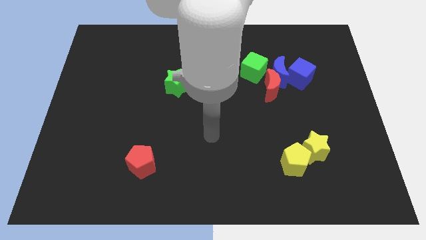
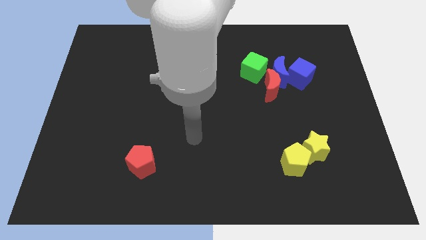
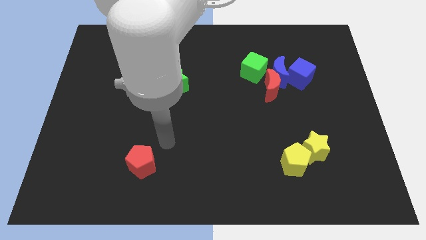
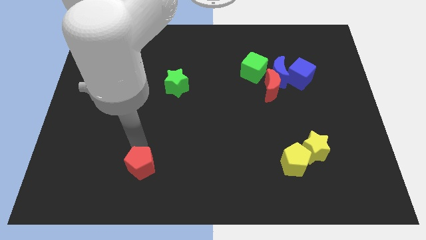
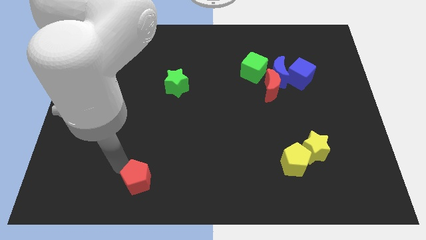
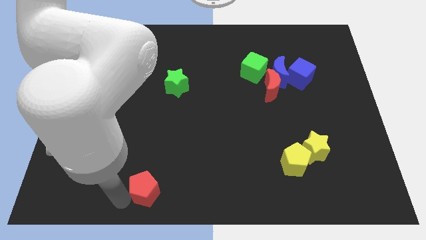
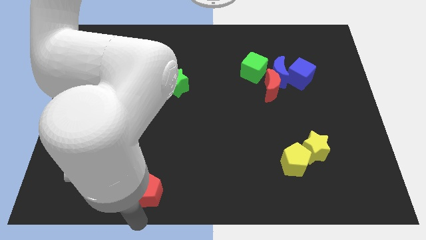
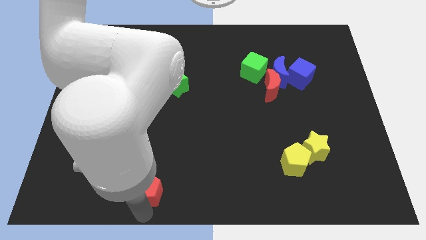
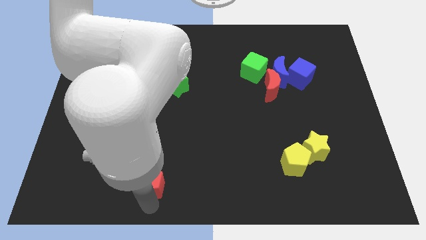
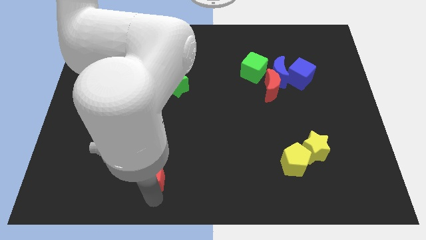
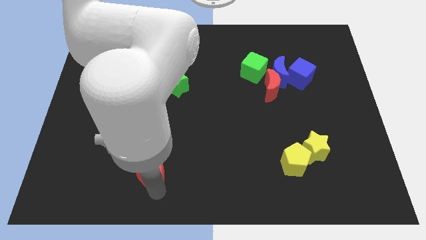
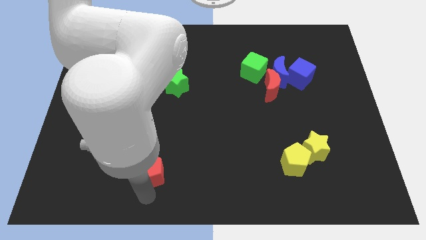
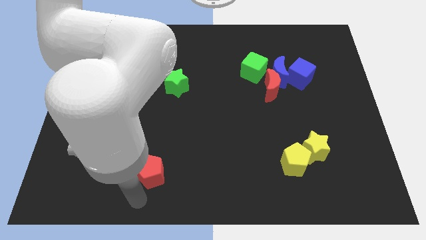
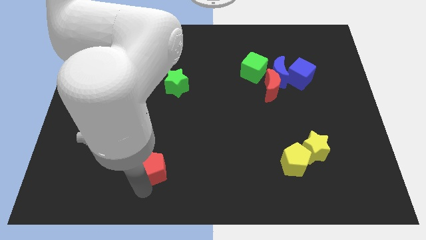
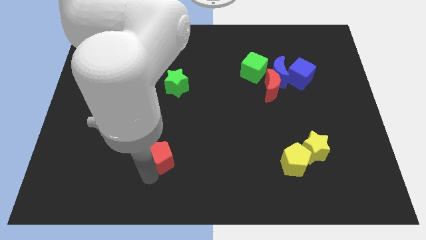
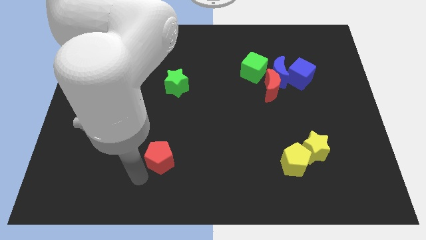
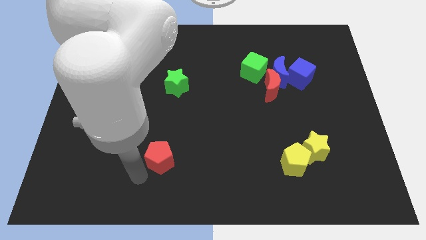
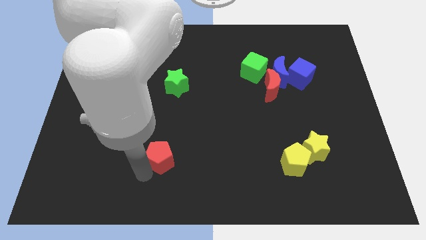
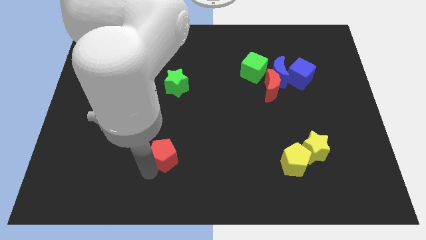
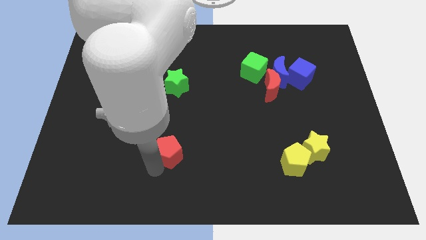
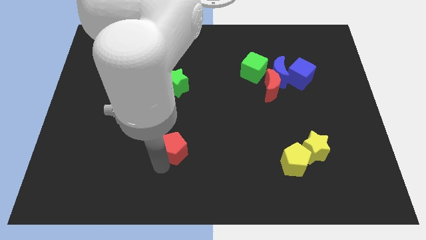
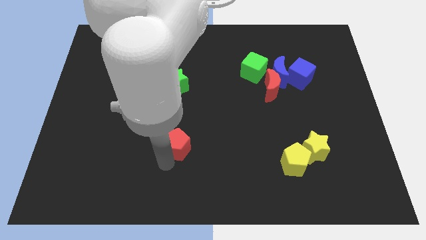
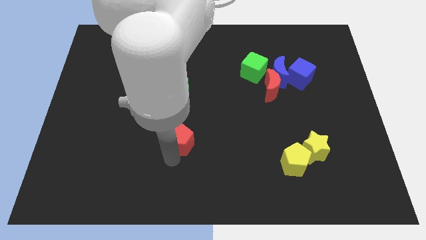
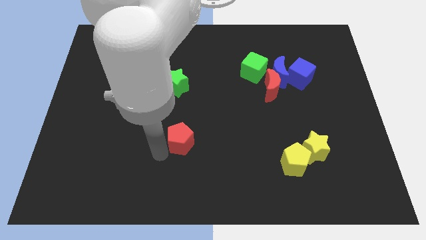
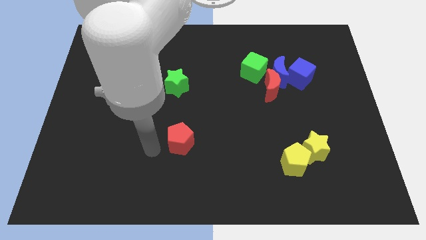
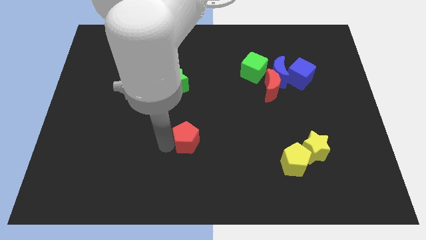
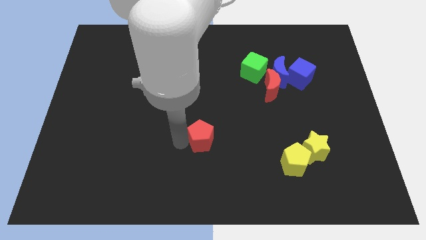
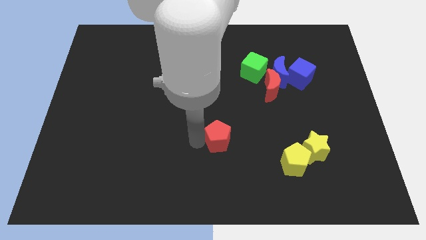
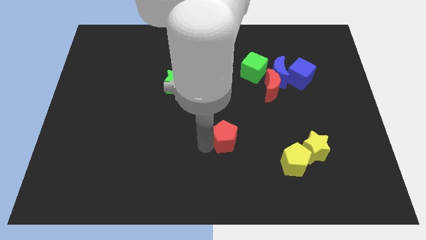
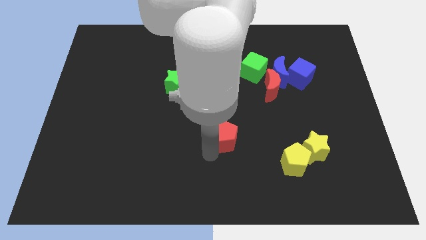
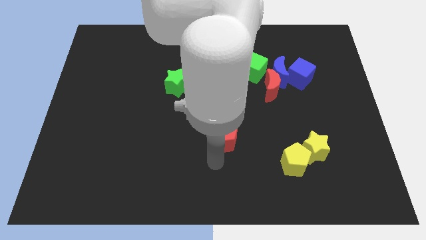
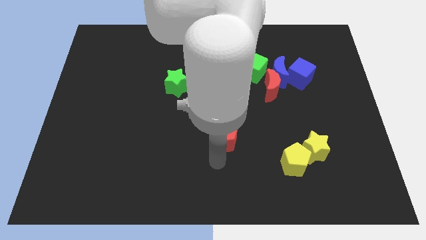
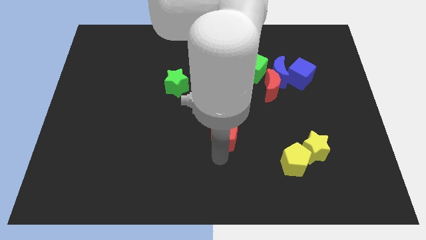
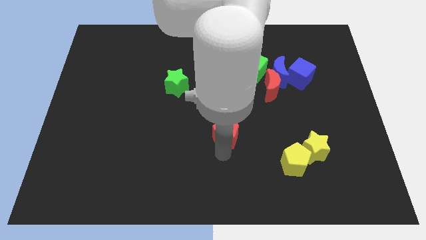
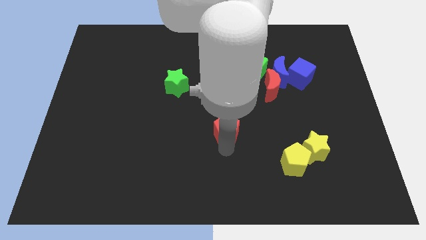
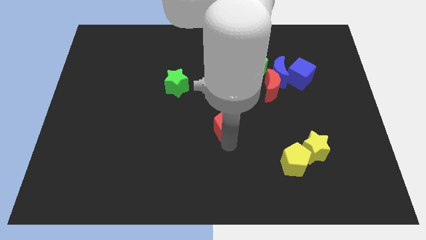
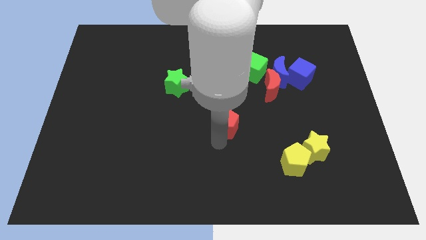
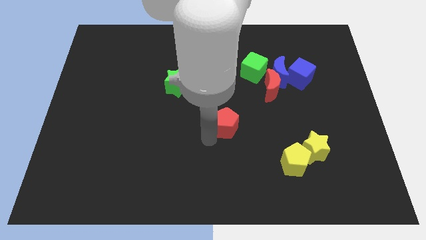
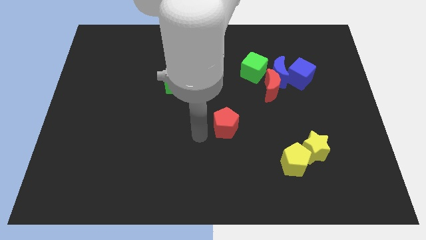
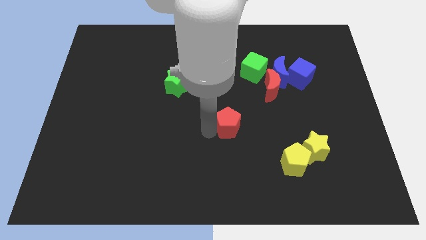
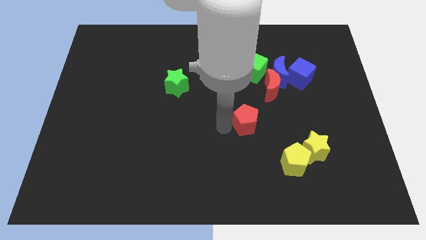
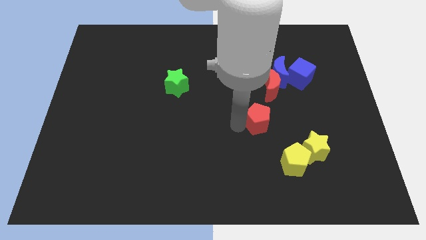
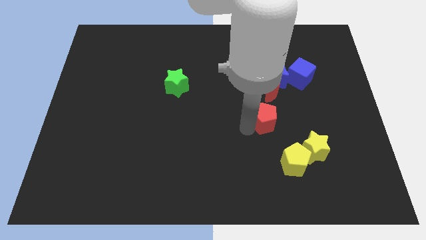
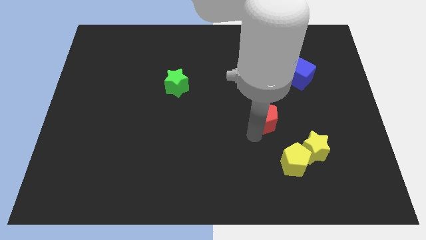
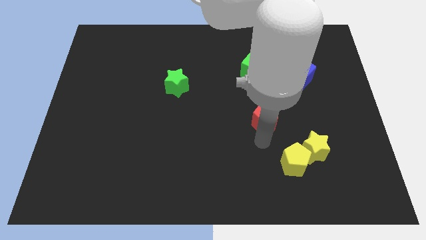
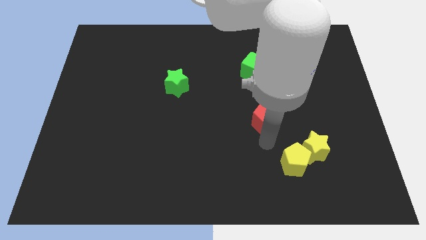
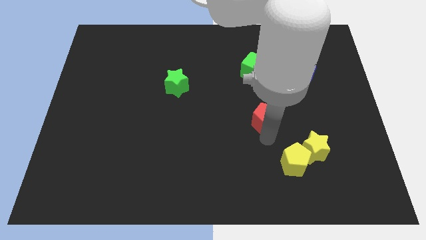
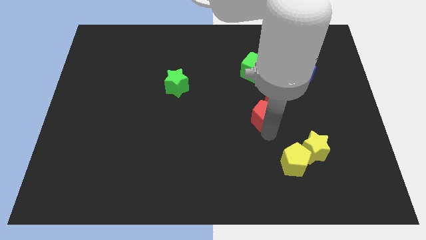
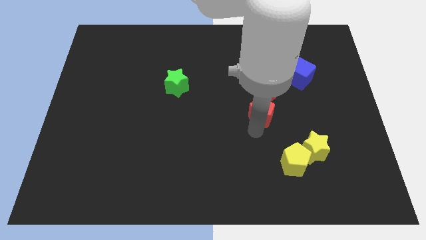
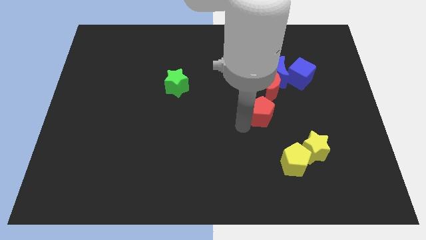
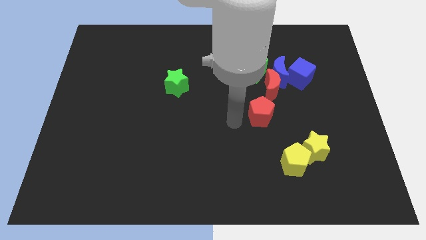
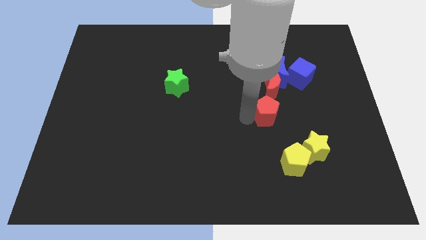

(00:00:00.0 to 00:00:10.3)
slide the red pentagon to the bottom side of the blue moon

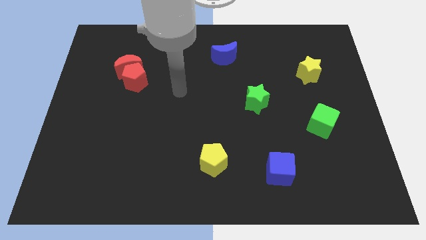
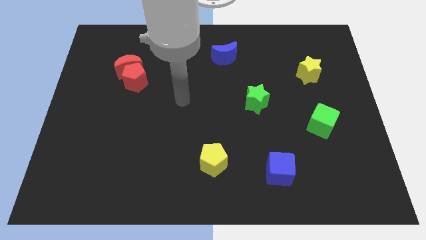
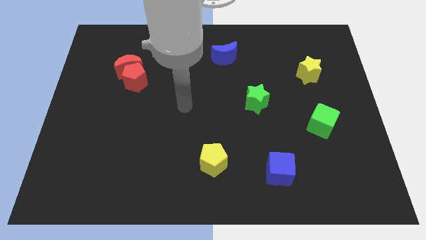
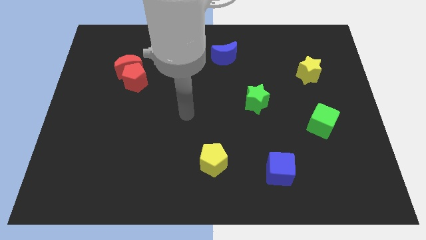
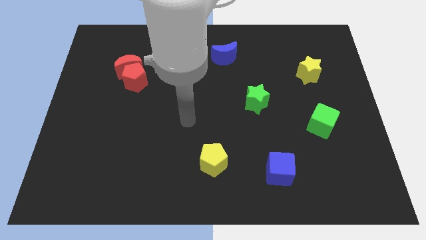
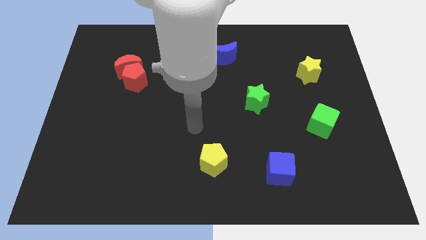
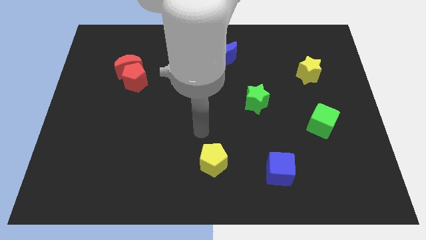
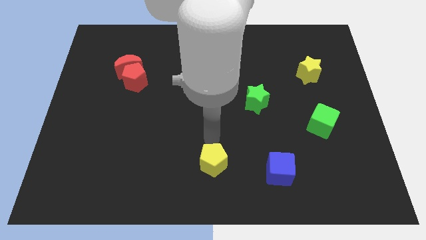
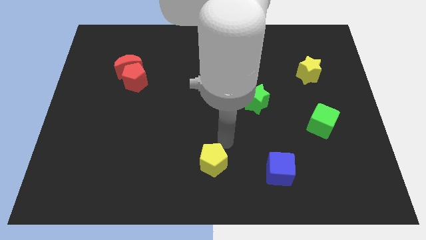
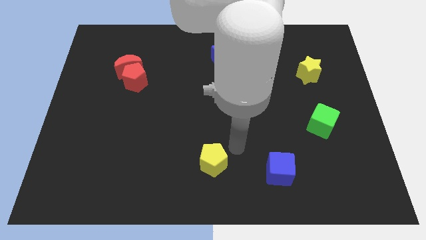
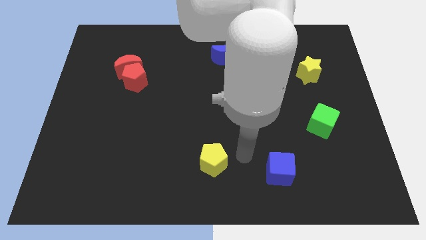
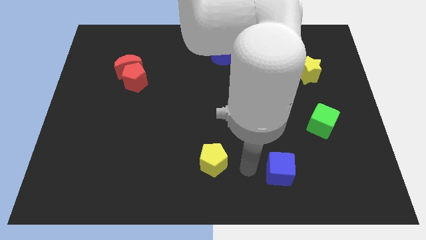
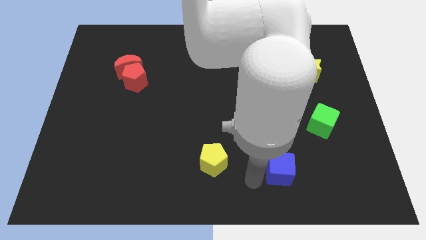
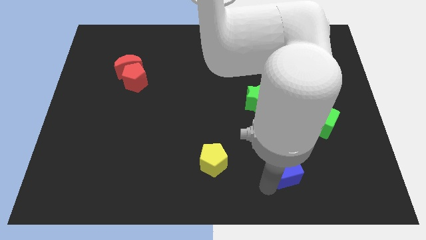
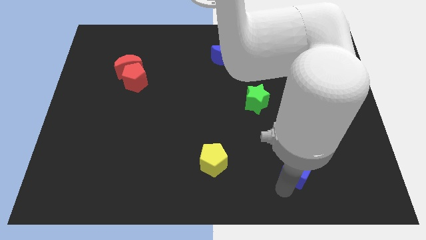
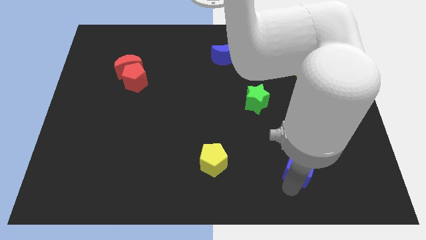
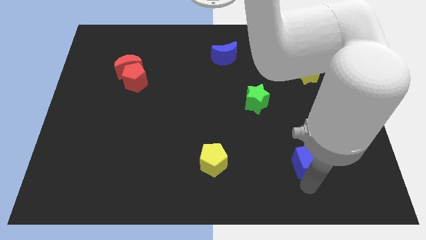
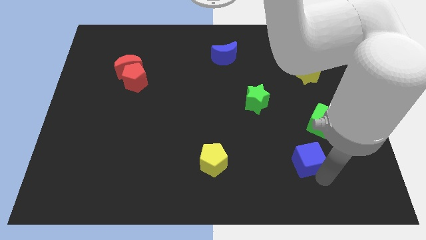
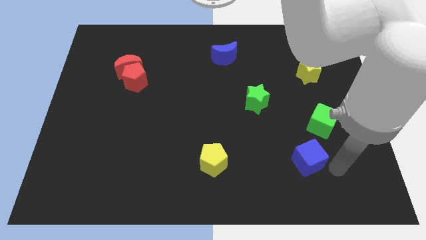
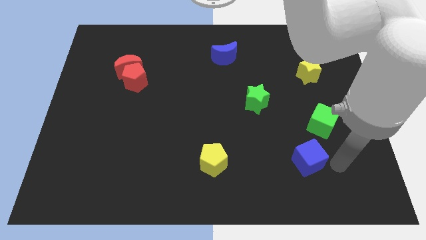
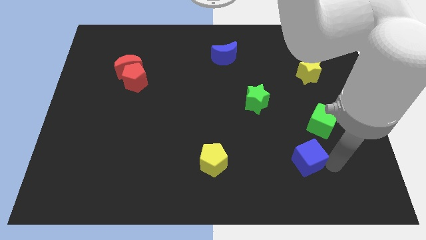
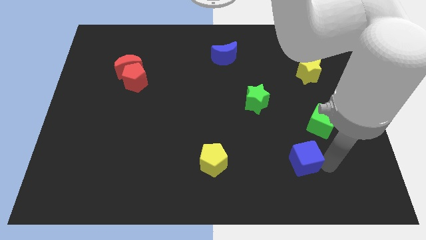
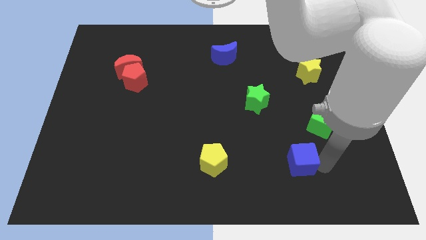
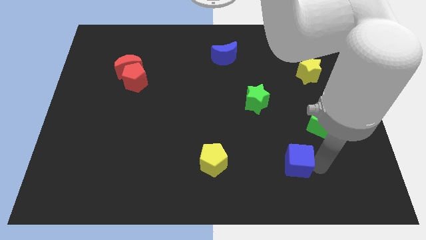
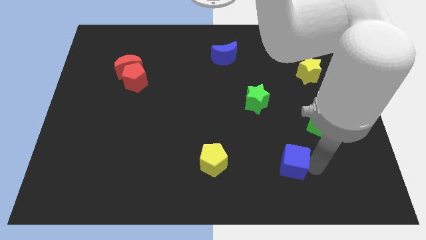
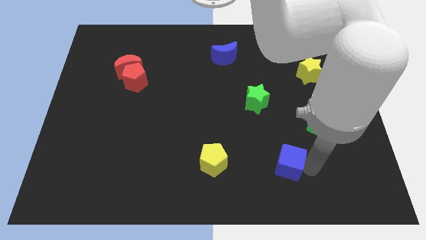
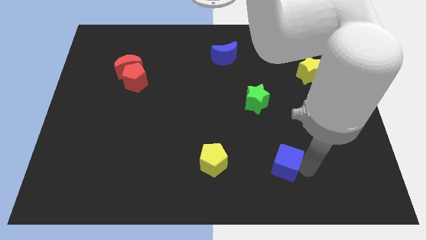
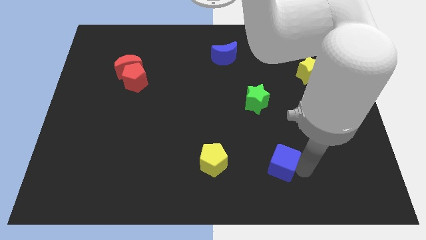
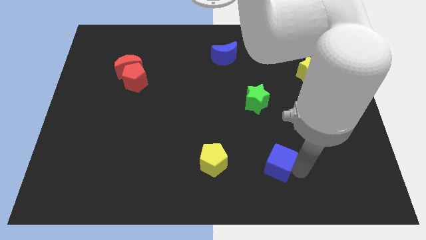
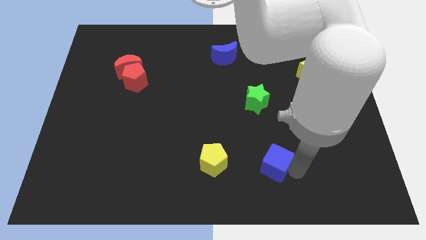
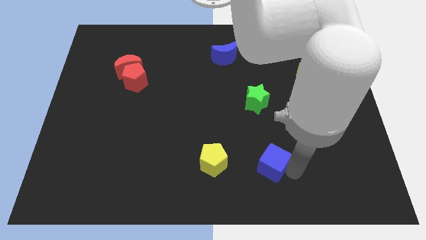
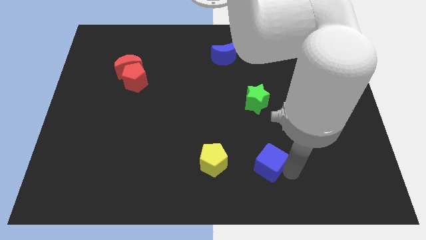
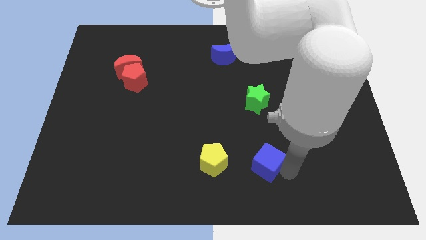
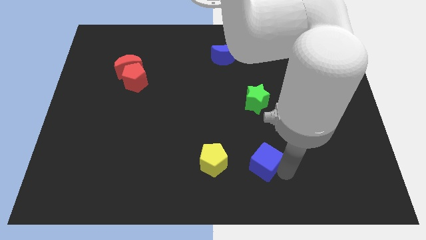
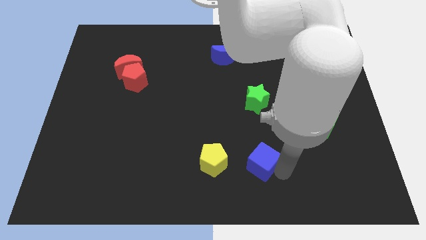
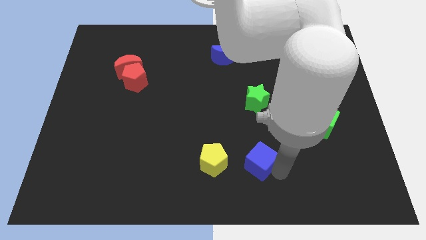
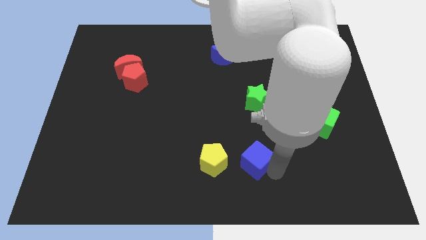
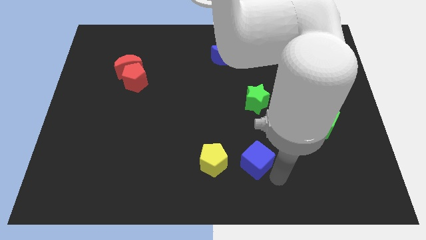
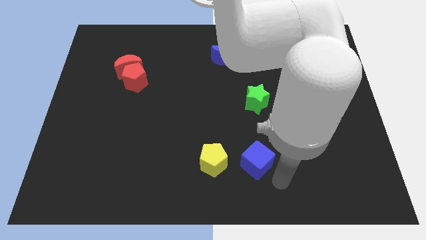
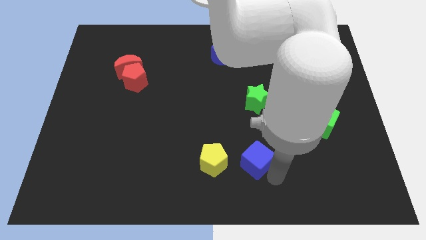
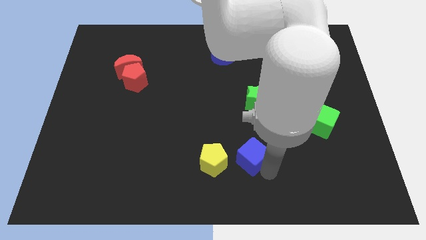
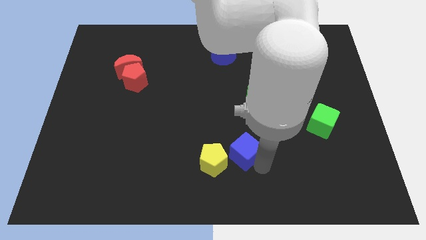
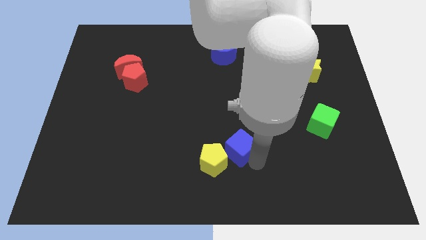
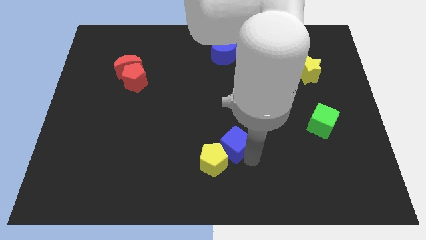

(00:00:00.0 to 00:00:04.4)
slide the blue cube to the top side of the yellow pentagon
